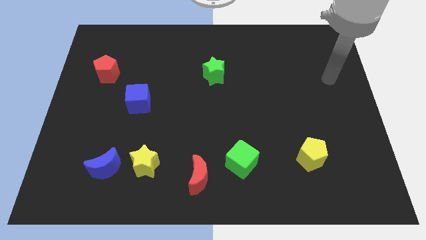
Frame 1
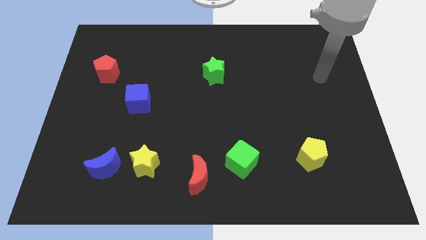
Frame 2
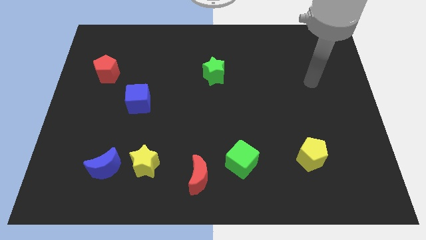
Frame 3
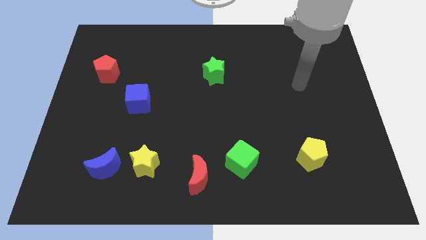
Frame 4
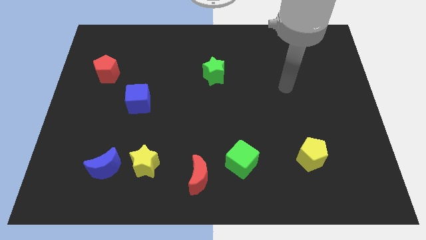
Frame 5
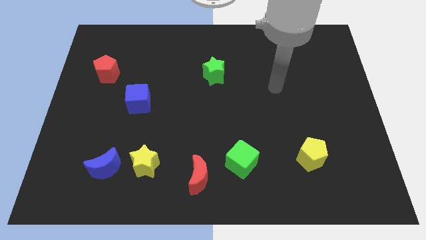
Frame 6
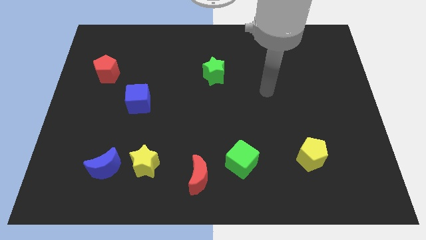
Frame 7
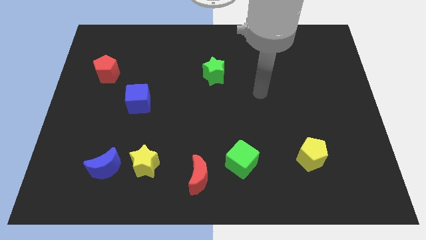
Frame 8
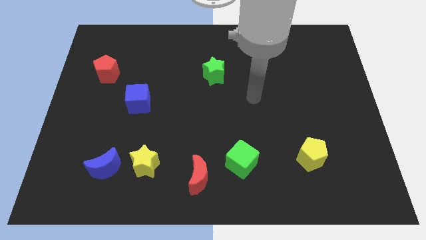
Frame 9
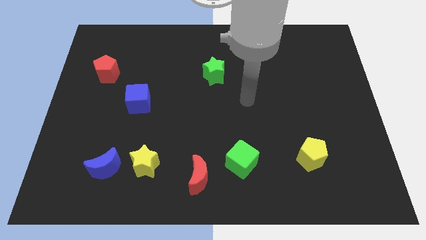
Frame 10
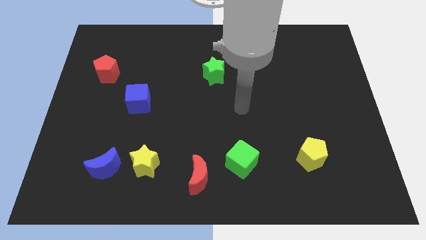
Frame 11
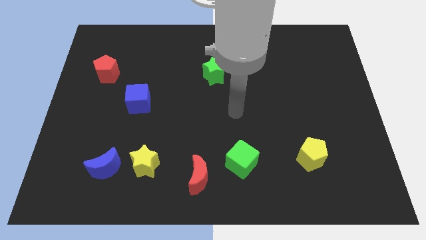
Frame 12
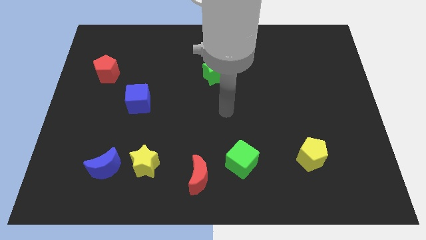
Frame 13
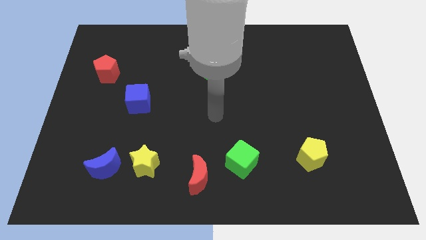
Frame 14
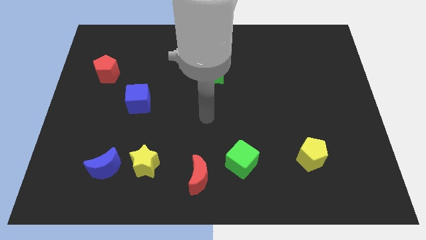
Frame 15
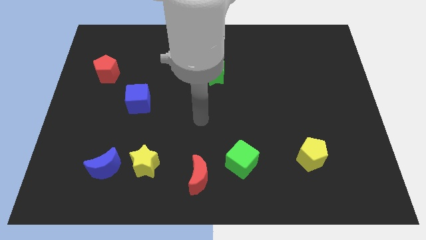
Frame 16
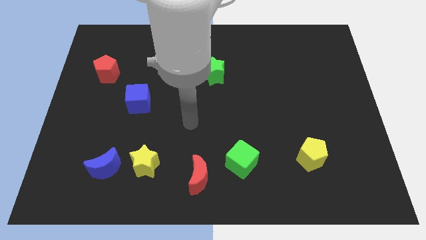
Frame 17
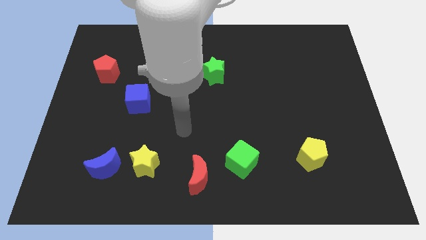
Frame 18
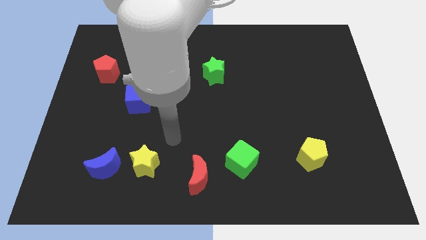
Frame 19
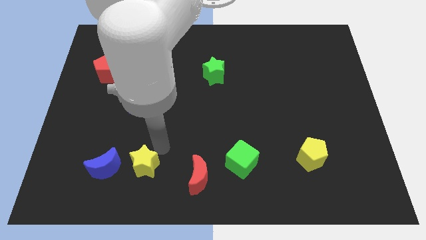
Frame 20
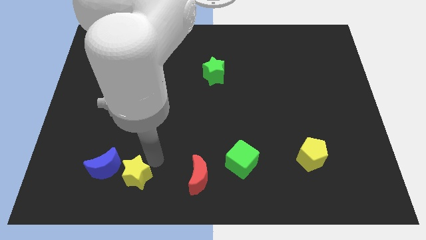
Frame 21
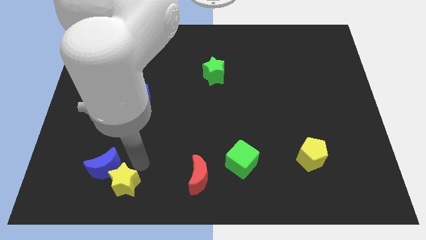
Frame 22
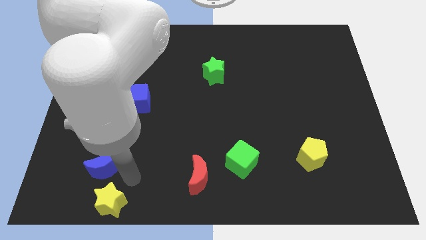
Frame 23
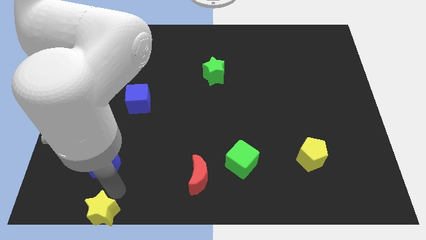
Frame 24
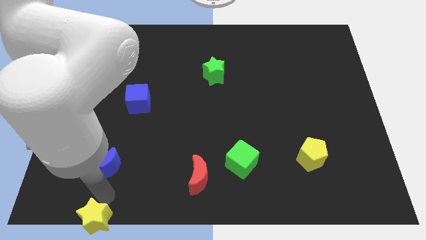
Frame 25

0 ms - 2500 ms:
separate the blue moon from the yellow star

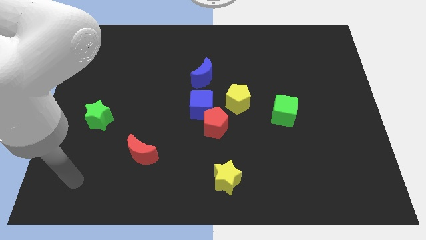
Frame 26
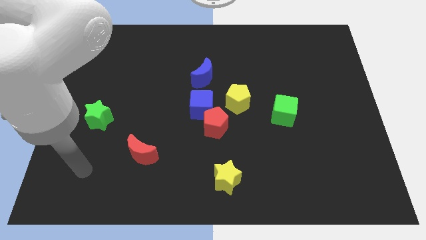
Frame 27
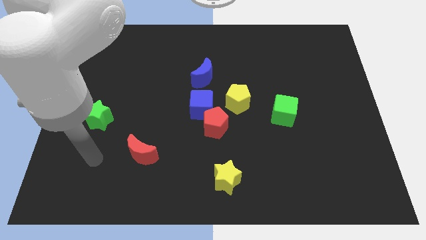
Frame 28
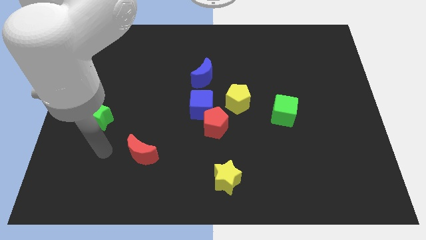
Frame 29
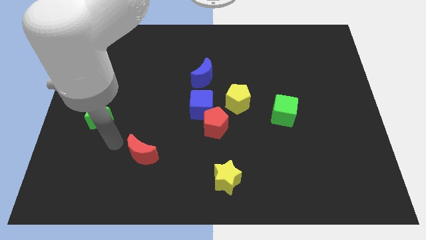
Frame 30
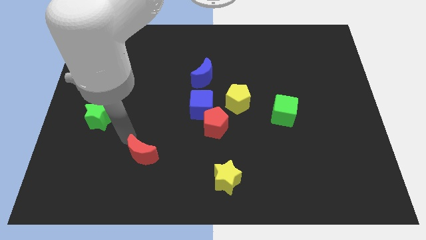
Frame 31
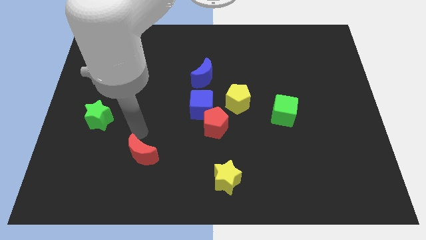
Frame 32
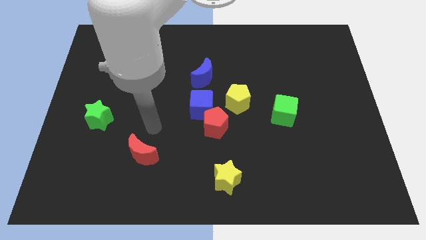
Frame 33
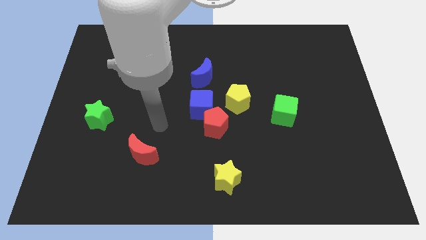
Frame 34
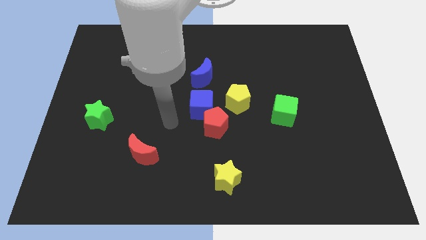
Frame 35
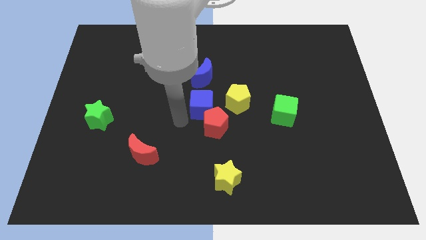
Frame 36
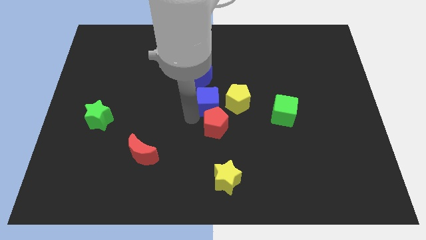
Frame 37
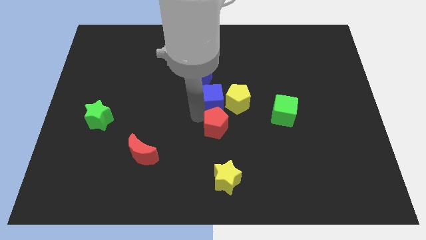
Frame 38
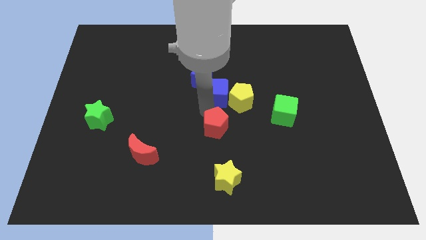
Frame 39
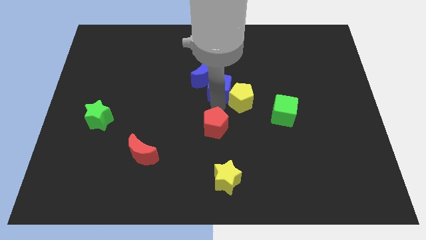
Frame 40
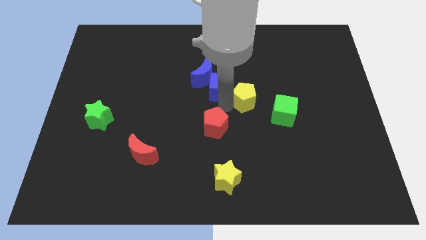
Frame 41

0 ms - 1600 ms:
move the red pentagon away from the blue cube and yellow pentagon

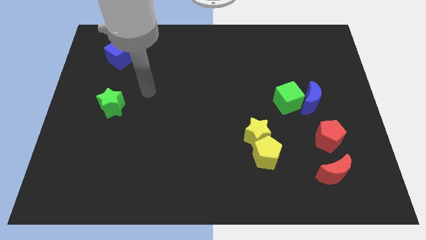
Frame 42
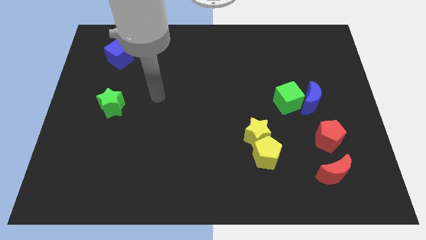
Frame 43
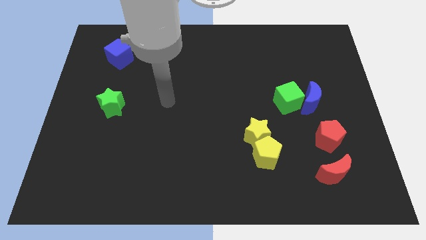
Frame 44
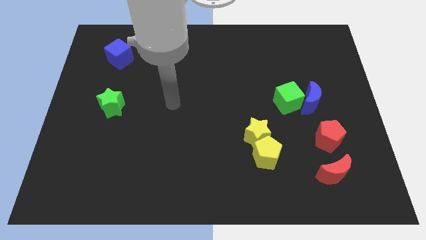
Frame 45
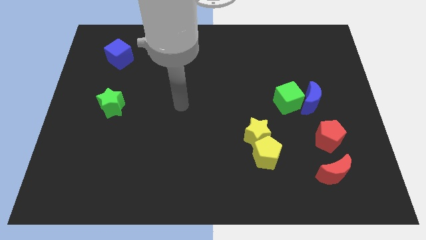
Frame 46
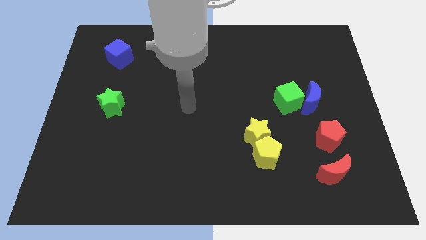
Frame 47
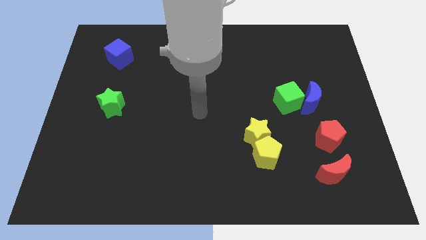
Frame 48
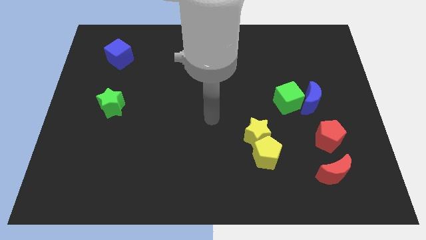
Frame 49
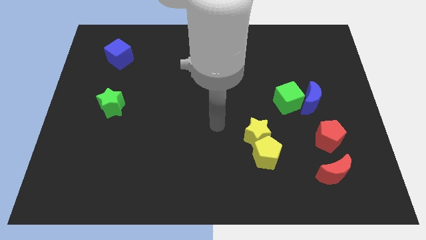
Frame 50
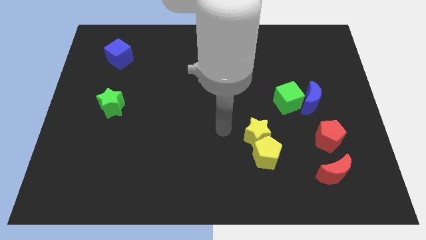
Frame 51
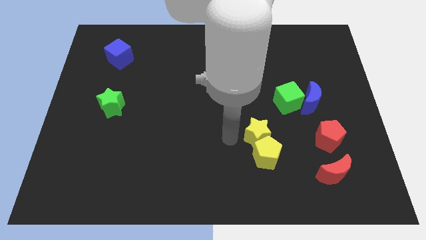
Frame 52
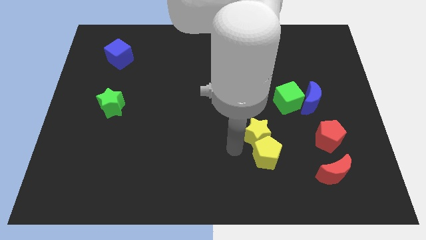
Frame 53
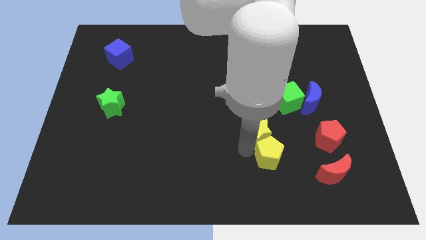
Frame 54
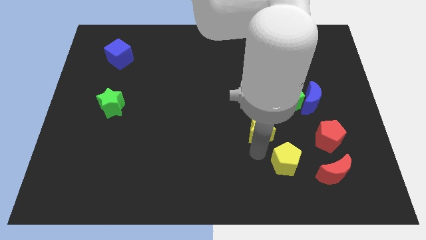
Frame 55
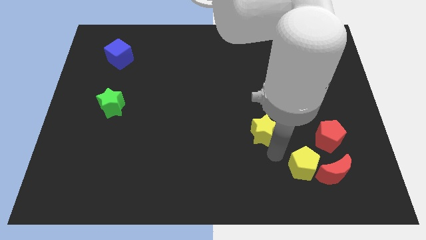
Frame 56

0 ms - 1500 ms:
pull the yellow star apart from the yellow pentagon

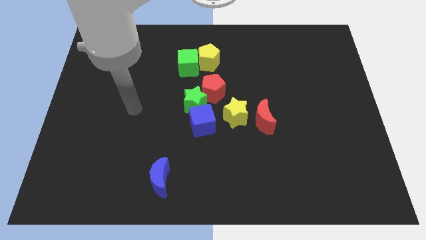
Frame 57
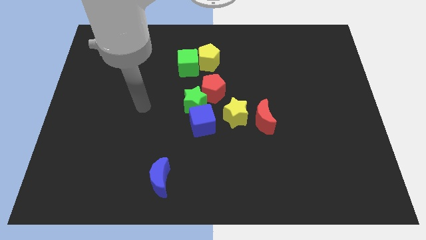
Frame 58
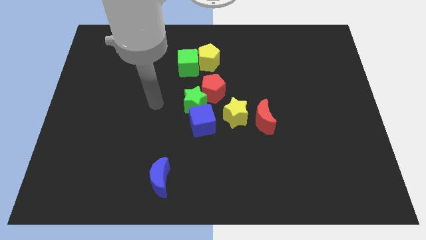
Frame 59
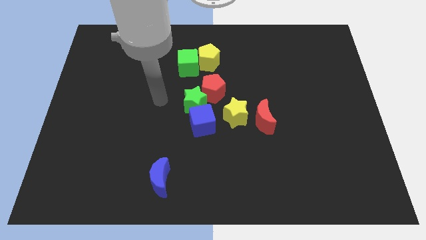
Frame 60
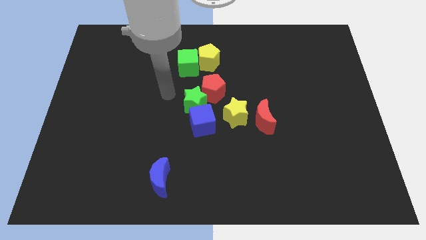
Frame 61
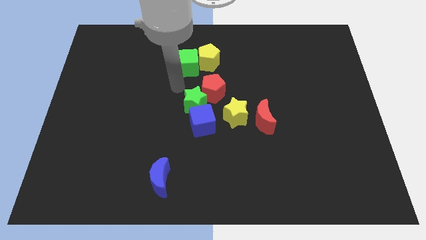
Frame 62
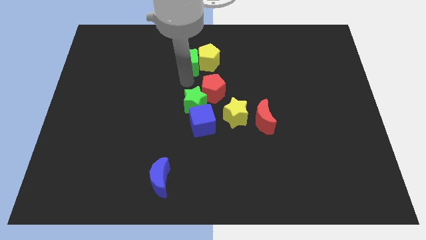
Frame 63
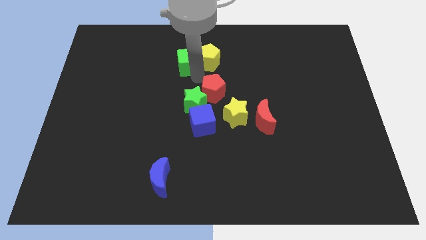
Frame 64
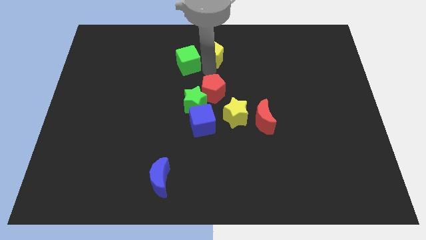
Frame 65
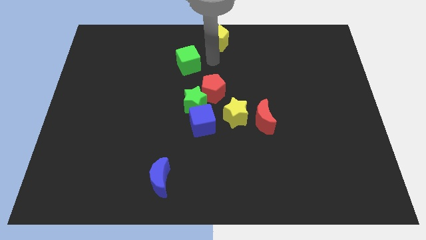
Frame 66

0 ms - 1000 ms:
move the green cube away from the yellow pentagon

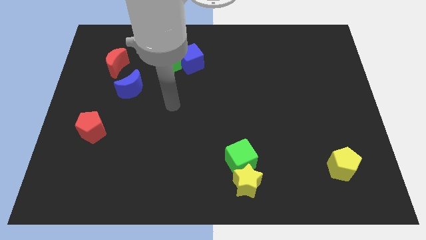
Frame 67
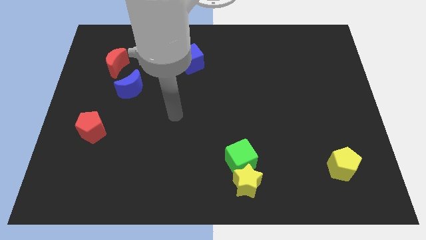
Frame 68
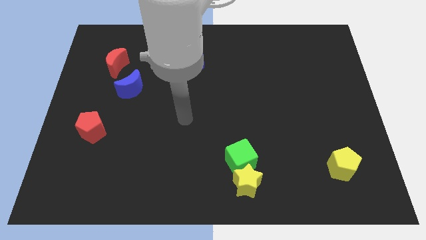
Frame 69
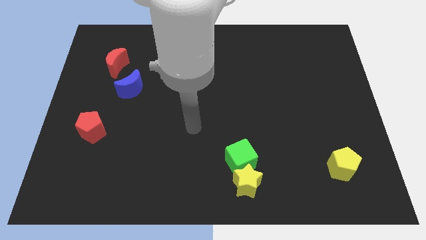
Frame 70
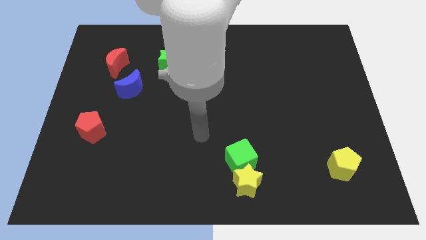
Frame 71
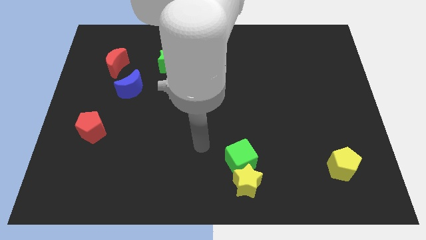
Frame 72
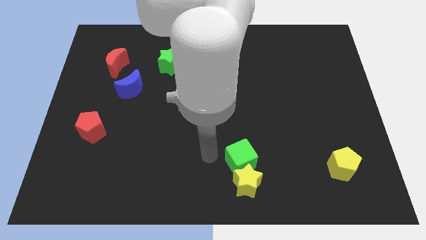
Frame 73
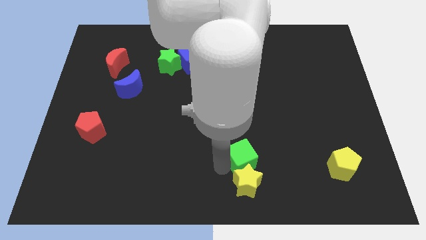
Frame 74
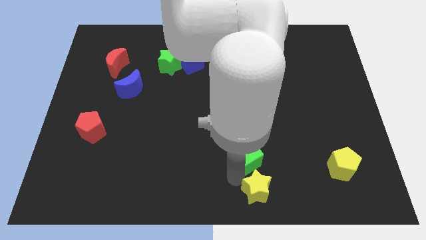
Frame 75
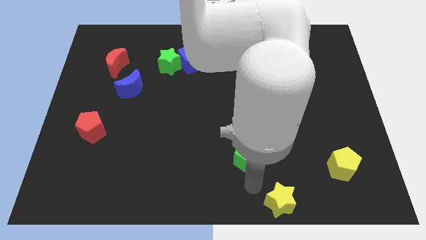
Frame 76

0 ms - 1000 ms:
move the green cube away from the yellow star

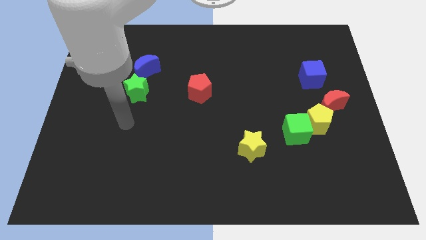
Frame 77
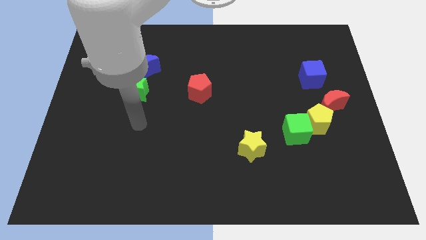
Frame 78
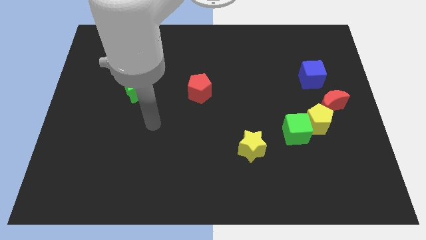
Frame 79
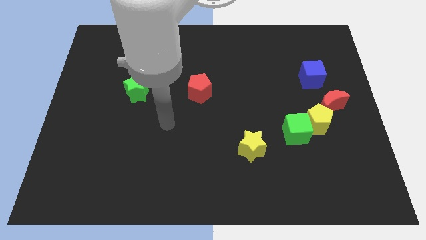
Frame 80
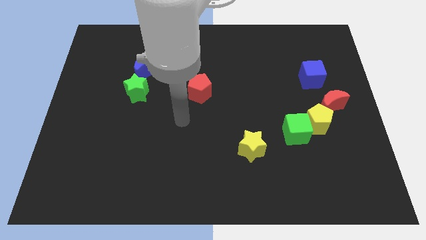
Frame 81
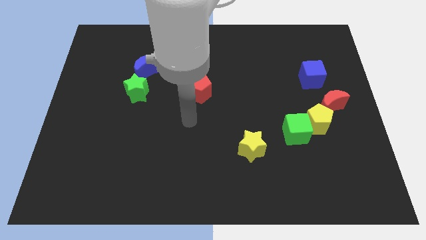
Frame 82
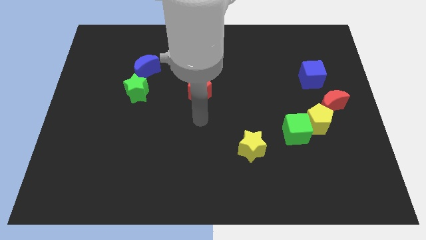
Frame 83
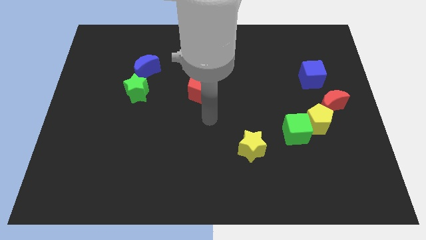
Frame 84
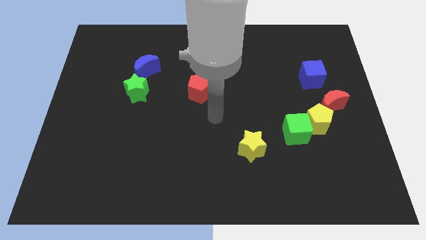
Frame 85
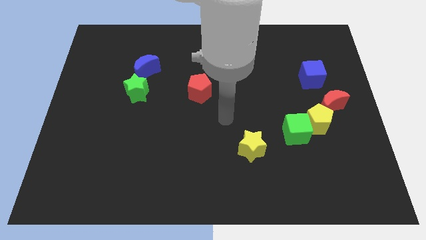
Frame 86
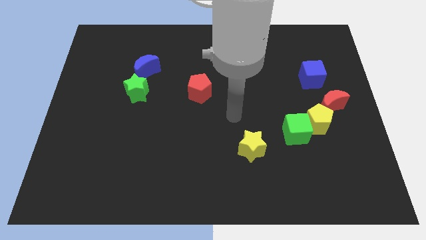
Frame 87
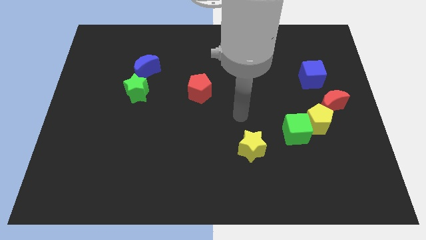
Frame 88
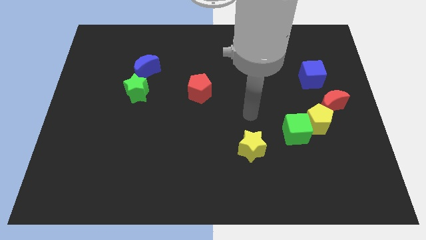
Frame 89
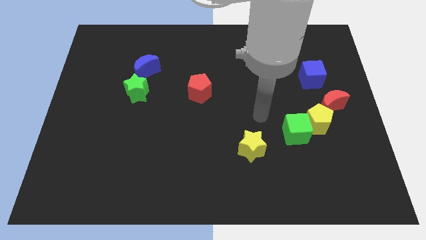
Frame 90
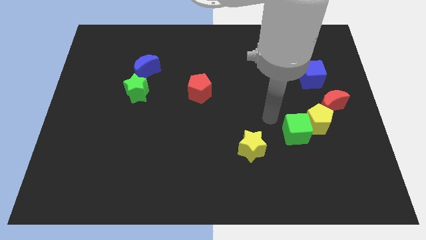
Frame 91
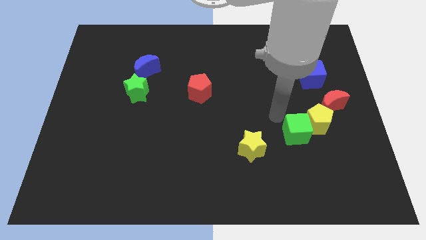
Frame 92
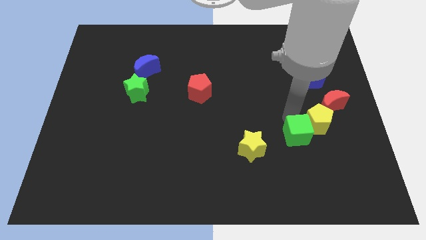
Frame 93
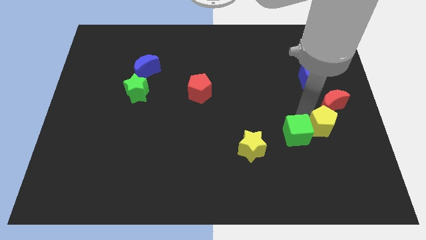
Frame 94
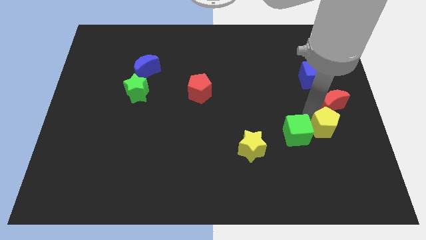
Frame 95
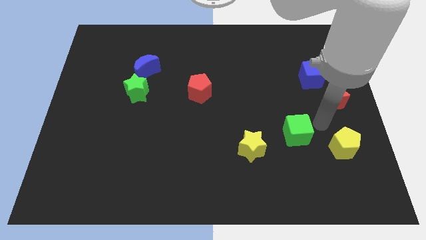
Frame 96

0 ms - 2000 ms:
separate the green cube from the yellow pentagon
